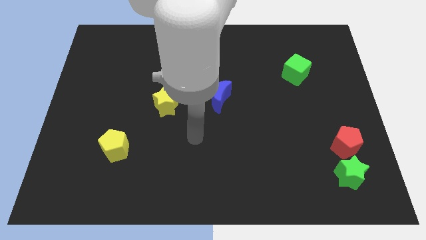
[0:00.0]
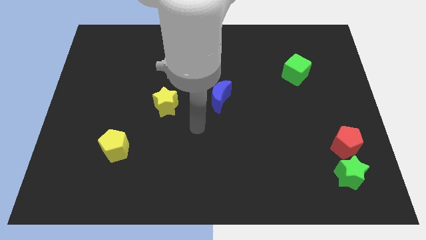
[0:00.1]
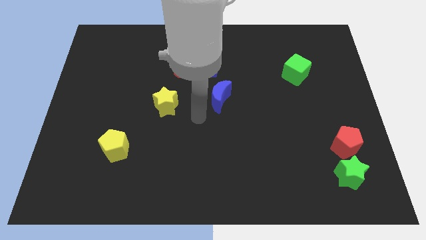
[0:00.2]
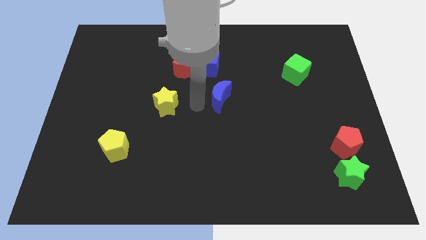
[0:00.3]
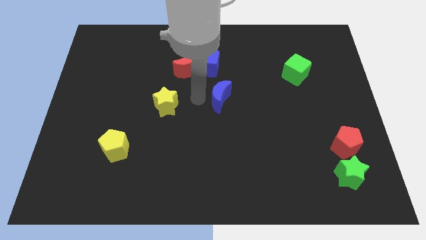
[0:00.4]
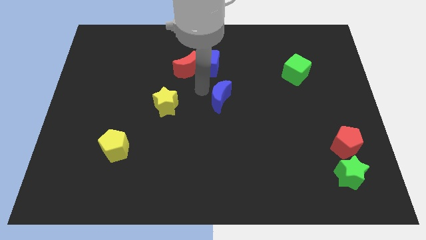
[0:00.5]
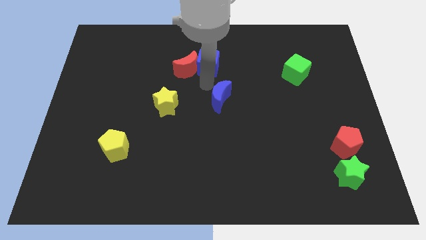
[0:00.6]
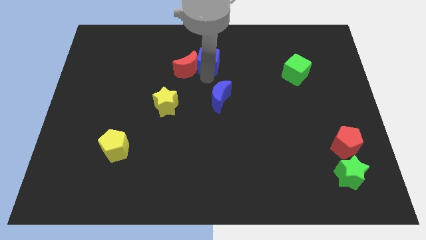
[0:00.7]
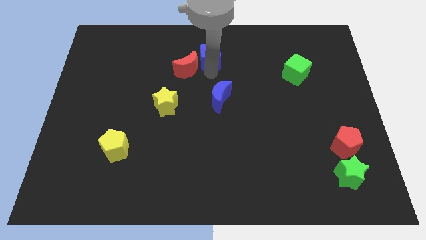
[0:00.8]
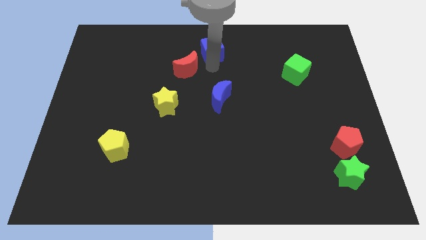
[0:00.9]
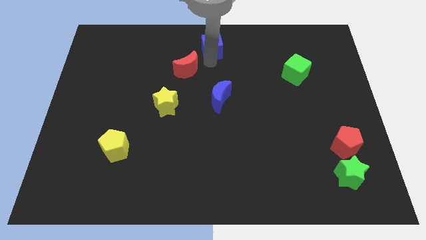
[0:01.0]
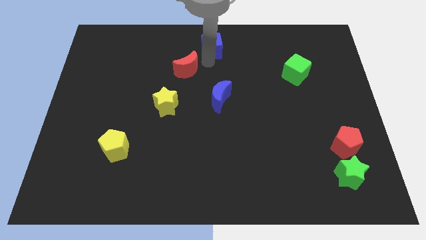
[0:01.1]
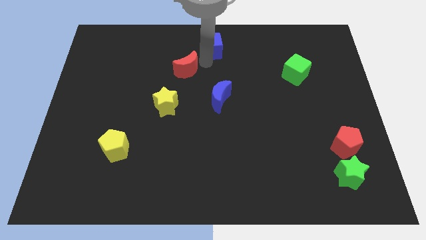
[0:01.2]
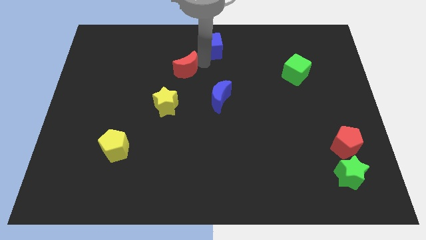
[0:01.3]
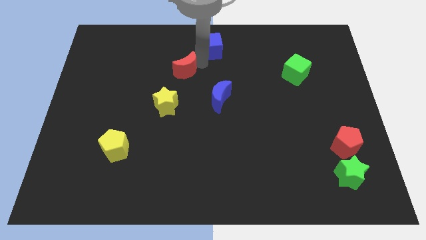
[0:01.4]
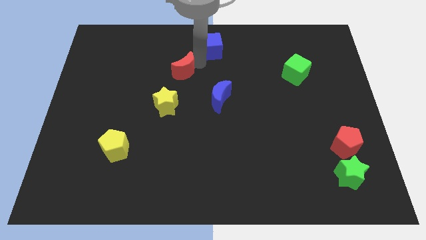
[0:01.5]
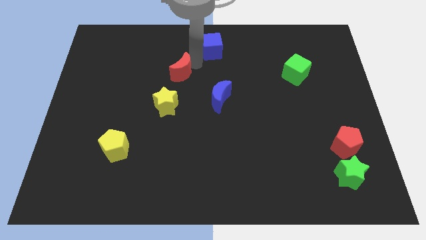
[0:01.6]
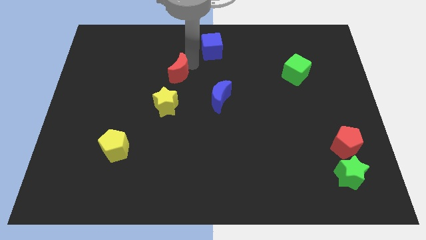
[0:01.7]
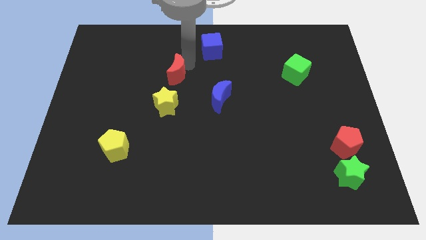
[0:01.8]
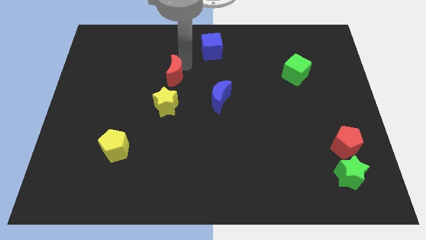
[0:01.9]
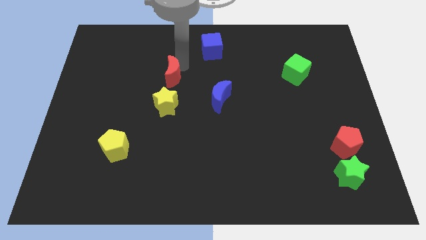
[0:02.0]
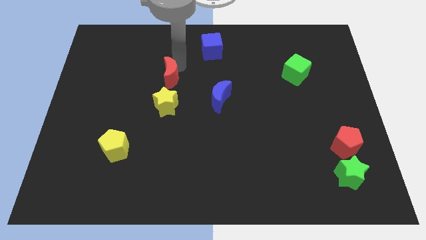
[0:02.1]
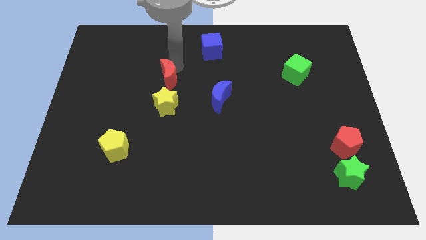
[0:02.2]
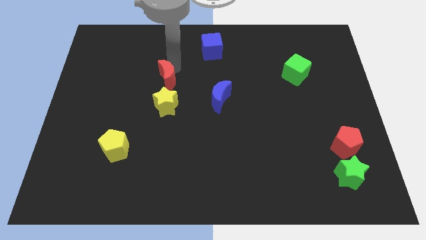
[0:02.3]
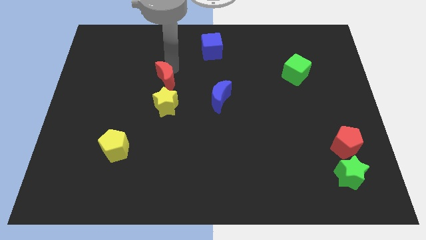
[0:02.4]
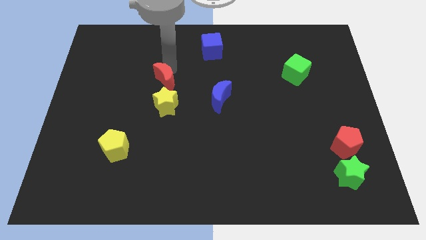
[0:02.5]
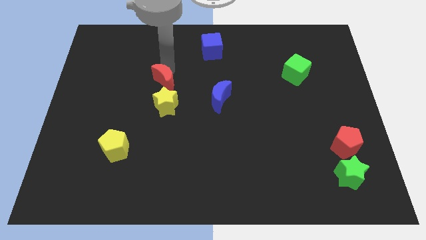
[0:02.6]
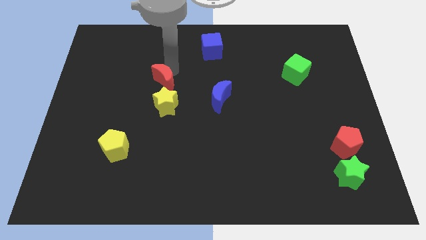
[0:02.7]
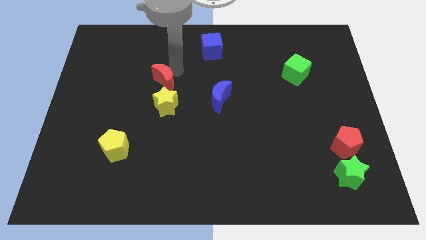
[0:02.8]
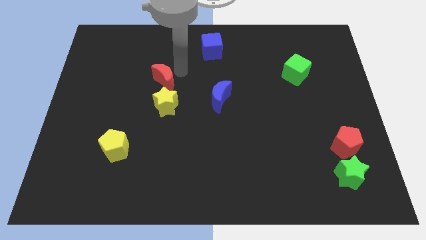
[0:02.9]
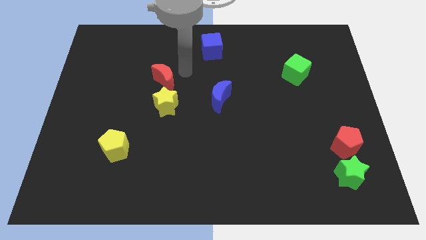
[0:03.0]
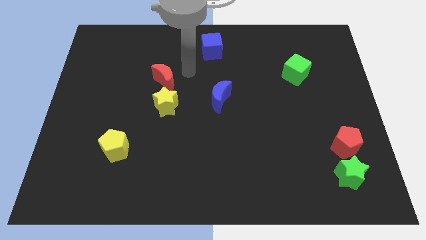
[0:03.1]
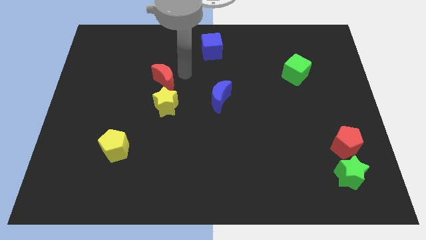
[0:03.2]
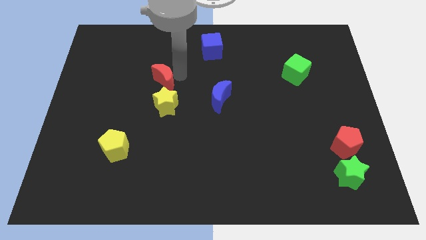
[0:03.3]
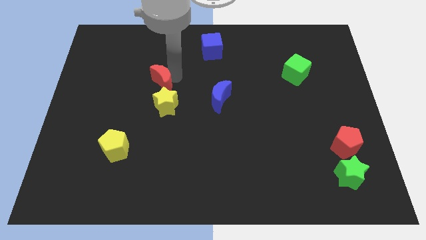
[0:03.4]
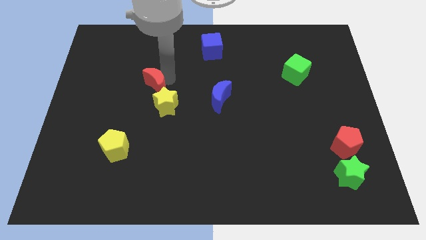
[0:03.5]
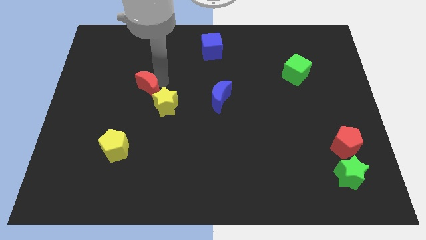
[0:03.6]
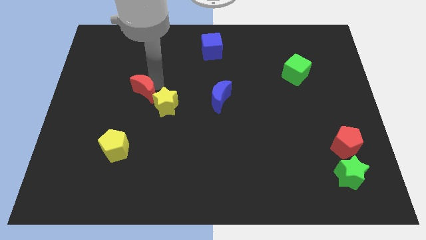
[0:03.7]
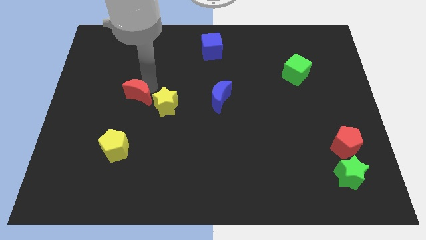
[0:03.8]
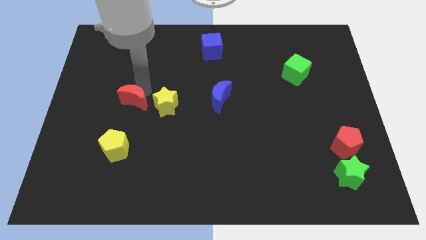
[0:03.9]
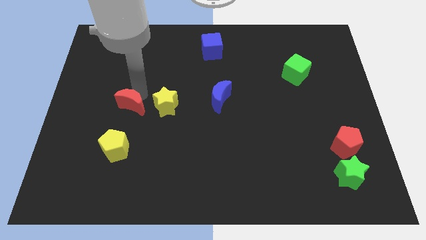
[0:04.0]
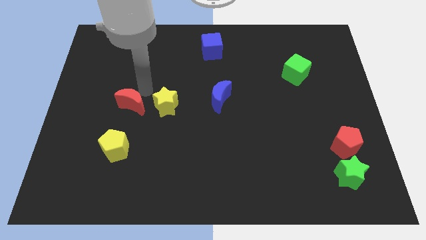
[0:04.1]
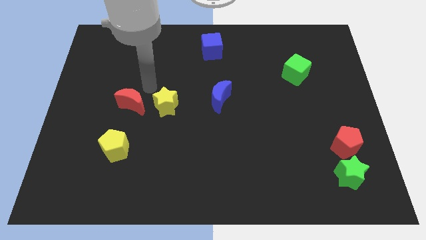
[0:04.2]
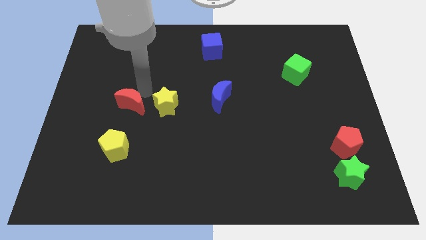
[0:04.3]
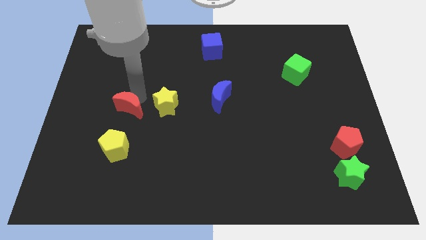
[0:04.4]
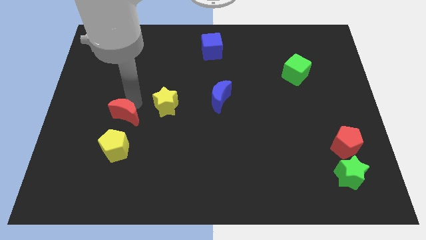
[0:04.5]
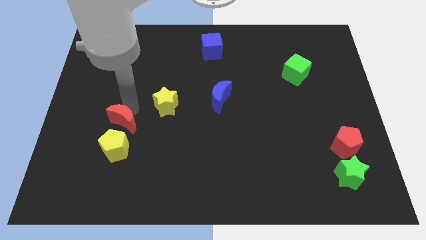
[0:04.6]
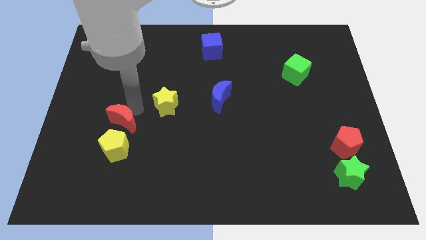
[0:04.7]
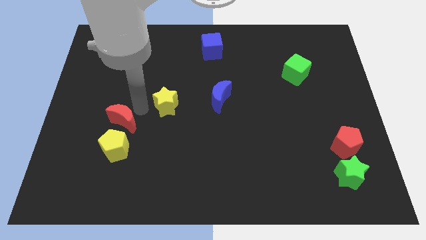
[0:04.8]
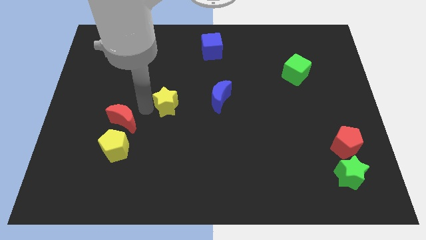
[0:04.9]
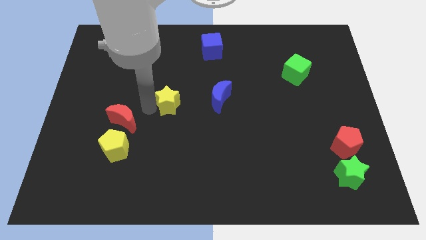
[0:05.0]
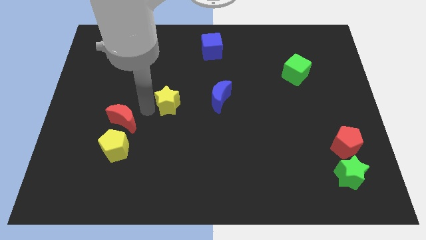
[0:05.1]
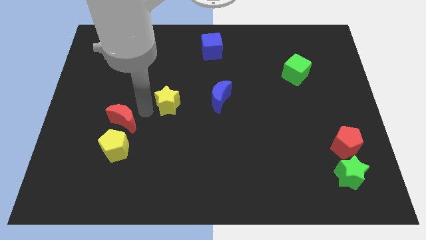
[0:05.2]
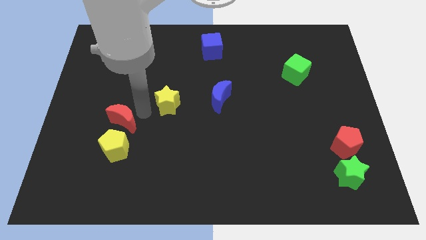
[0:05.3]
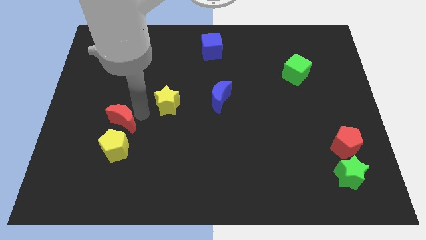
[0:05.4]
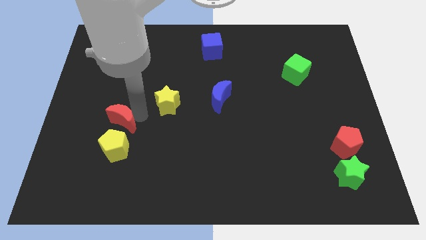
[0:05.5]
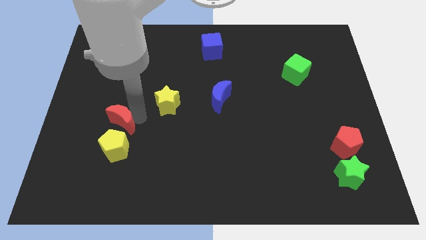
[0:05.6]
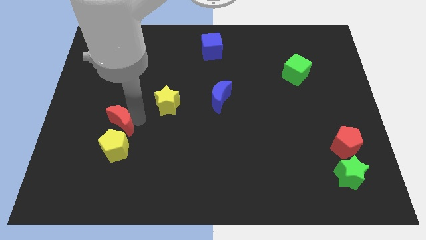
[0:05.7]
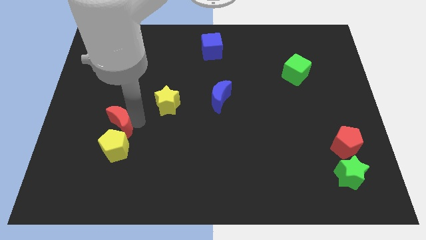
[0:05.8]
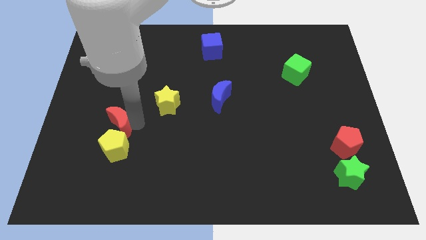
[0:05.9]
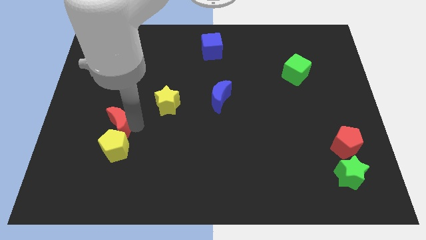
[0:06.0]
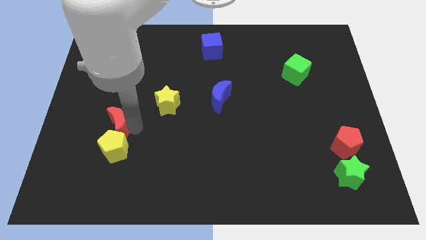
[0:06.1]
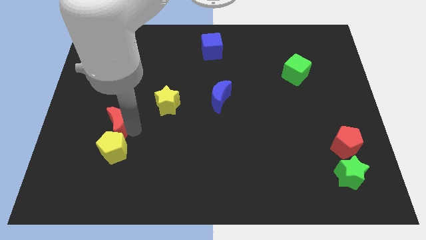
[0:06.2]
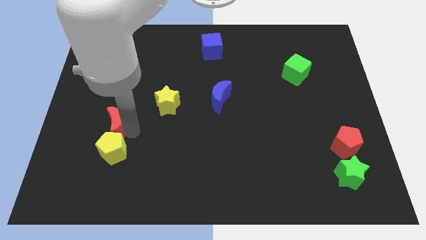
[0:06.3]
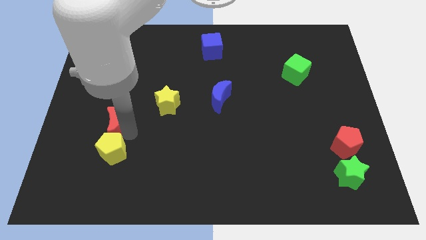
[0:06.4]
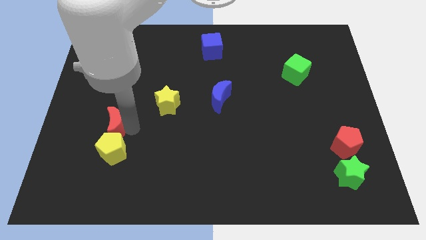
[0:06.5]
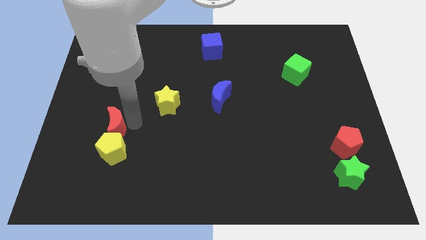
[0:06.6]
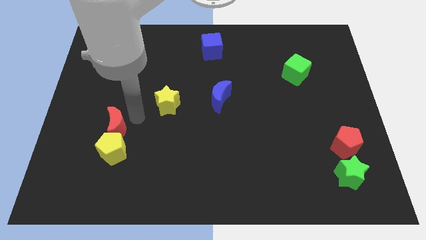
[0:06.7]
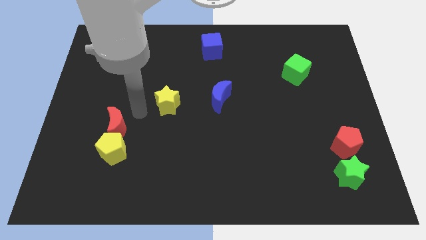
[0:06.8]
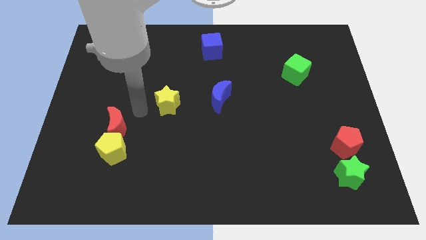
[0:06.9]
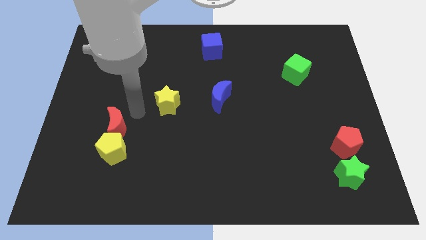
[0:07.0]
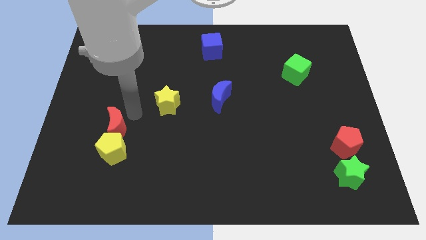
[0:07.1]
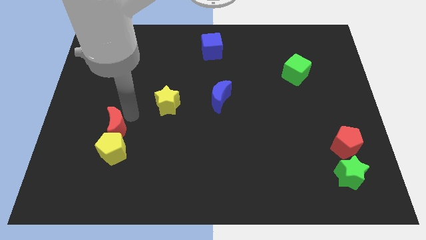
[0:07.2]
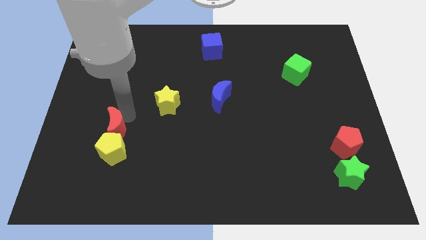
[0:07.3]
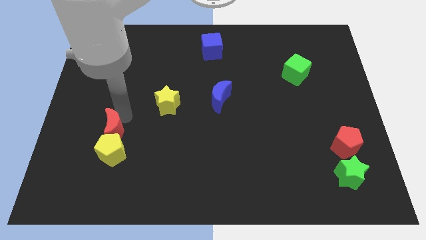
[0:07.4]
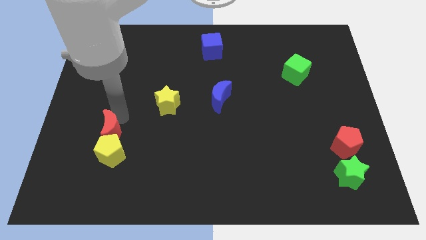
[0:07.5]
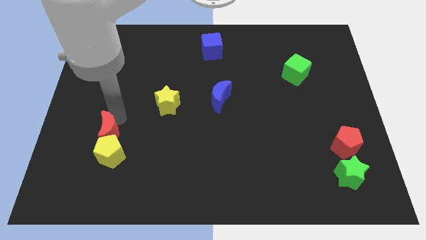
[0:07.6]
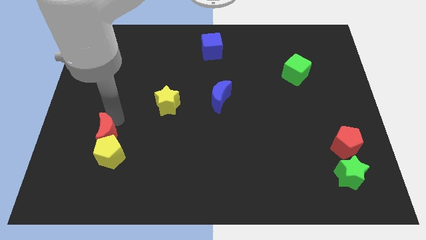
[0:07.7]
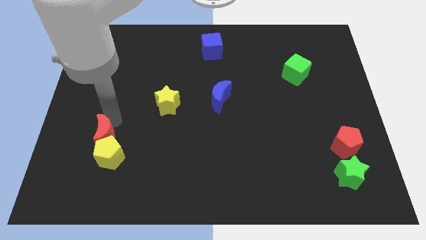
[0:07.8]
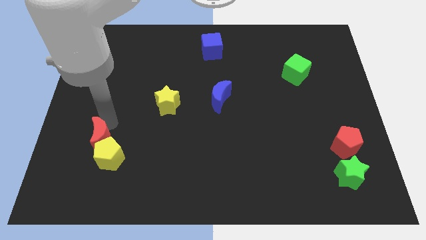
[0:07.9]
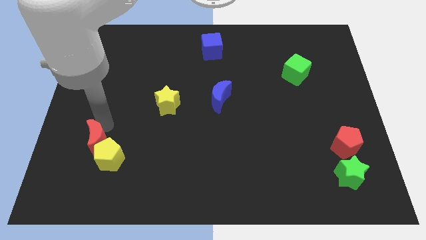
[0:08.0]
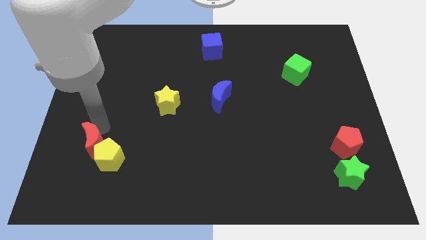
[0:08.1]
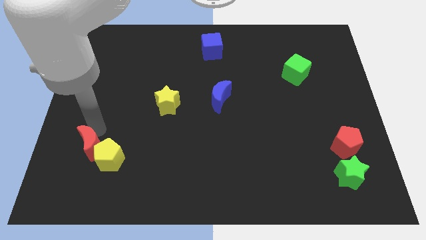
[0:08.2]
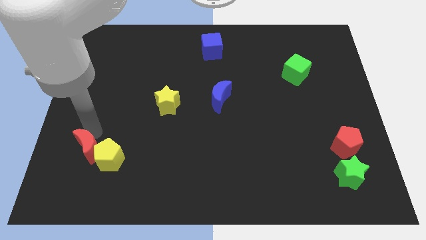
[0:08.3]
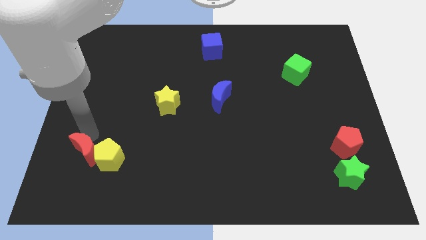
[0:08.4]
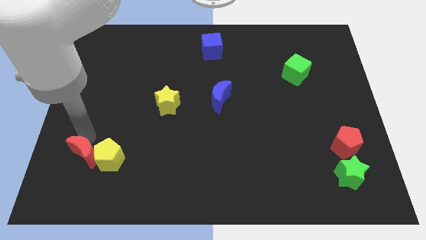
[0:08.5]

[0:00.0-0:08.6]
put the red moon diagonally down and to the left of the yellow pentagon
